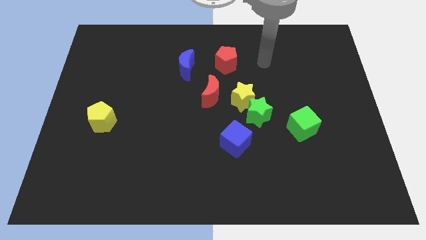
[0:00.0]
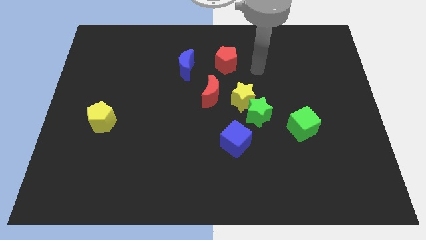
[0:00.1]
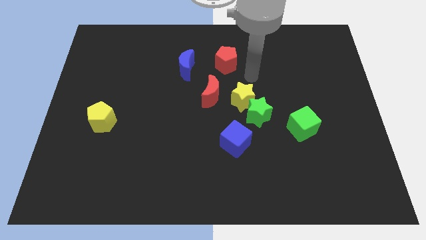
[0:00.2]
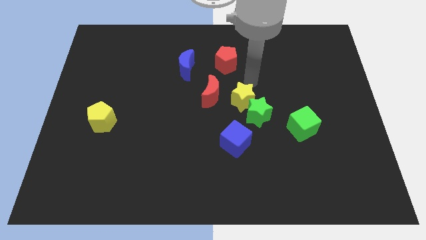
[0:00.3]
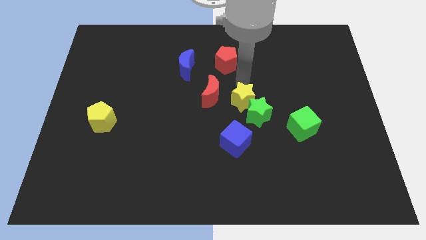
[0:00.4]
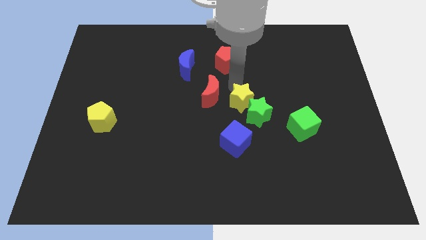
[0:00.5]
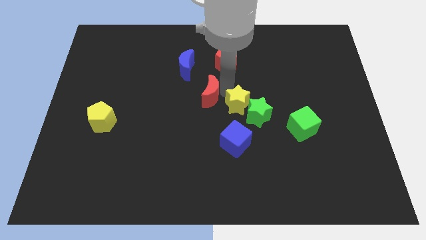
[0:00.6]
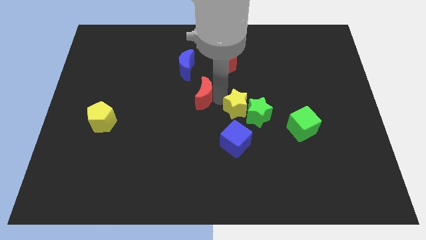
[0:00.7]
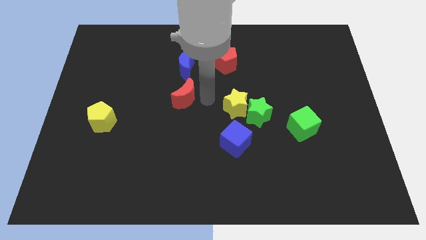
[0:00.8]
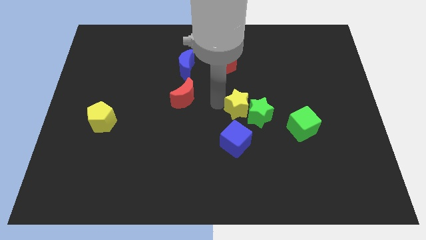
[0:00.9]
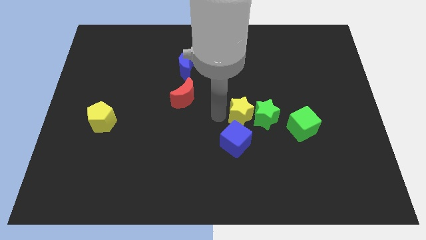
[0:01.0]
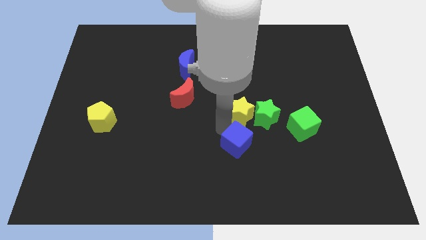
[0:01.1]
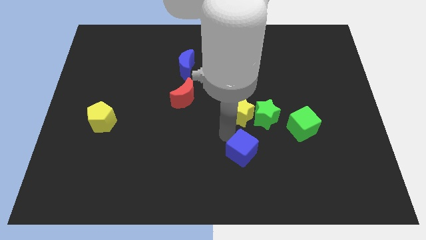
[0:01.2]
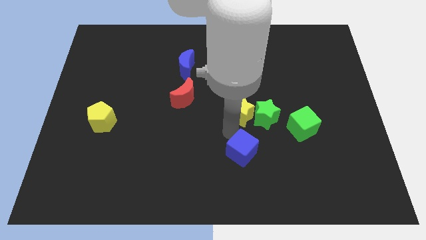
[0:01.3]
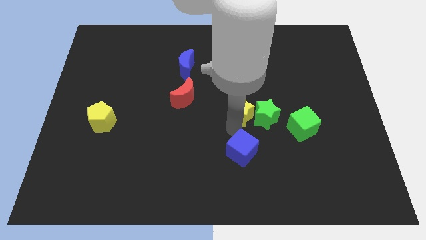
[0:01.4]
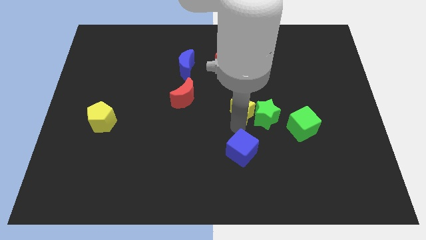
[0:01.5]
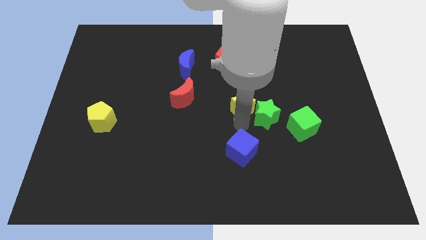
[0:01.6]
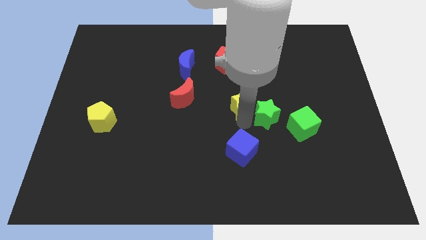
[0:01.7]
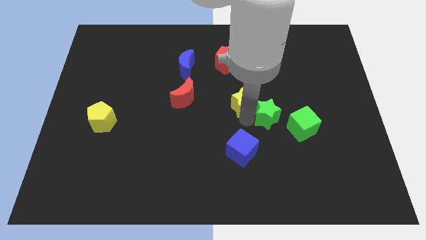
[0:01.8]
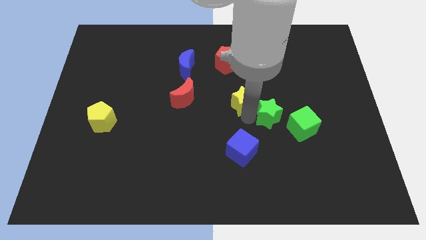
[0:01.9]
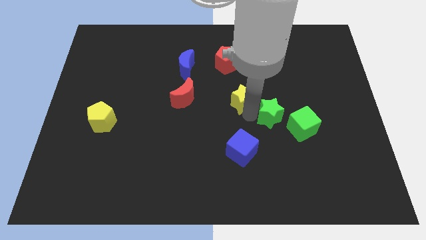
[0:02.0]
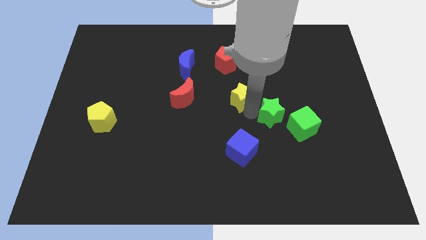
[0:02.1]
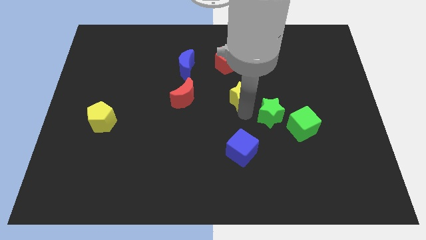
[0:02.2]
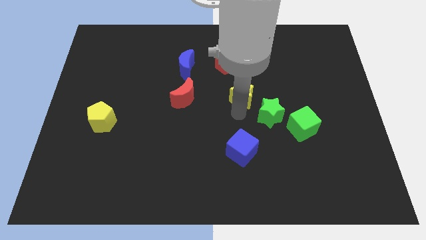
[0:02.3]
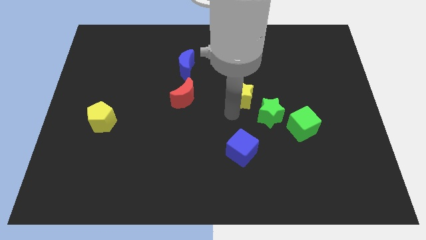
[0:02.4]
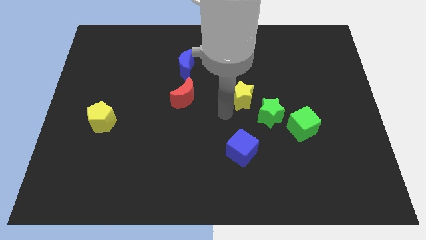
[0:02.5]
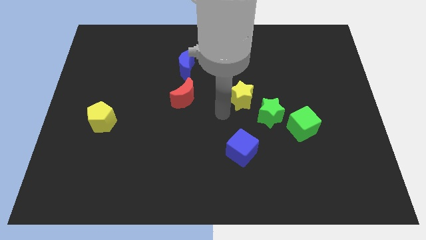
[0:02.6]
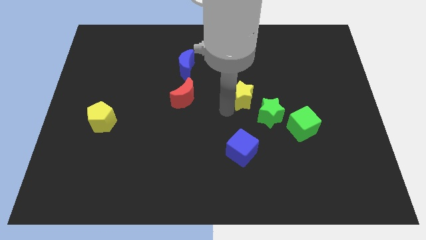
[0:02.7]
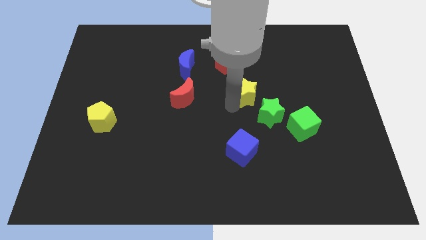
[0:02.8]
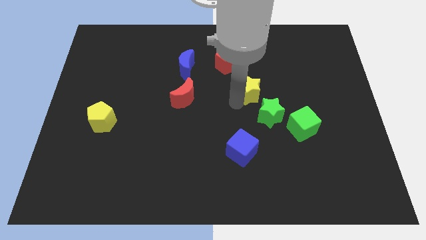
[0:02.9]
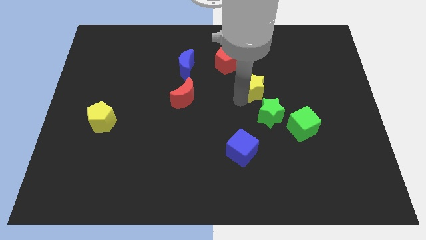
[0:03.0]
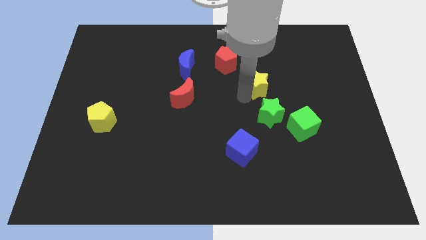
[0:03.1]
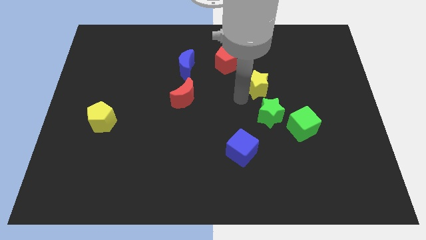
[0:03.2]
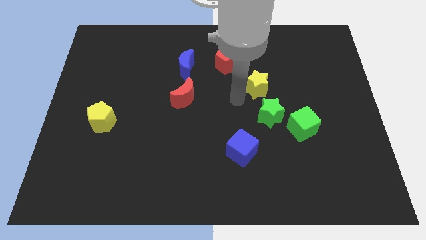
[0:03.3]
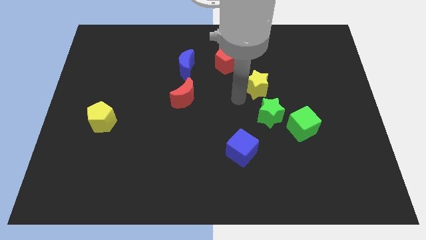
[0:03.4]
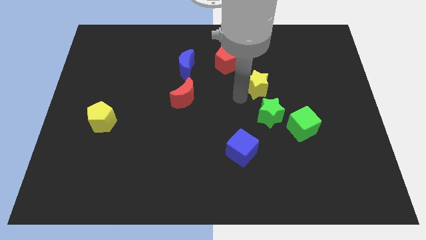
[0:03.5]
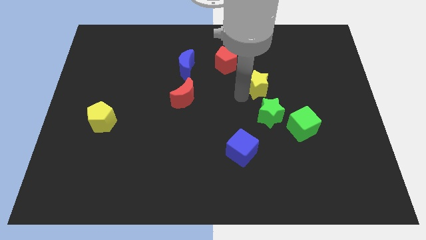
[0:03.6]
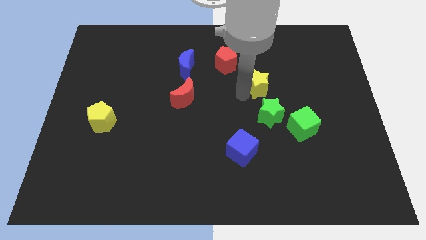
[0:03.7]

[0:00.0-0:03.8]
move the yellow star away from the green star and red moon

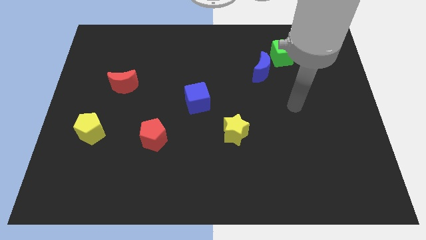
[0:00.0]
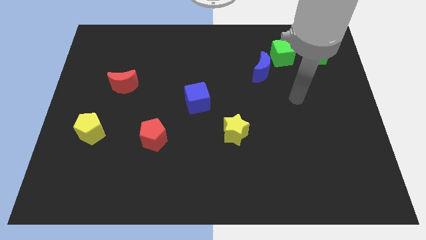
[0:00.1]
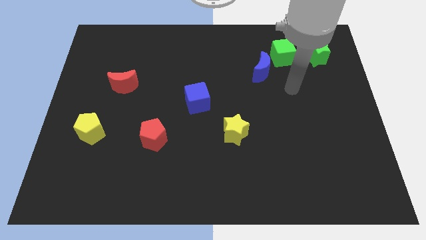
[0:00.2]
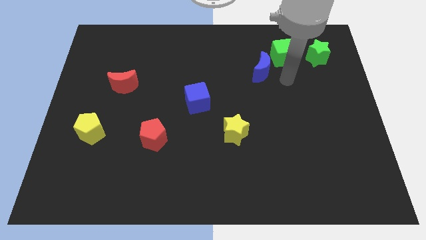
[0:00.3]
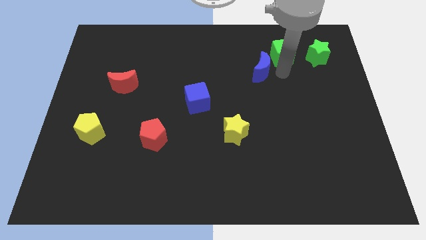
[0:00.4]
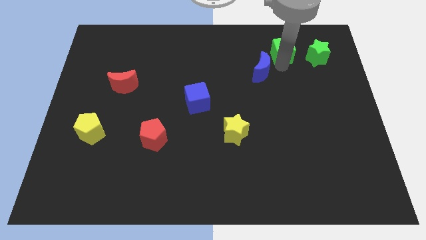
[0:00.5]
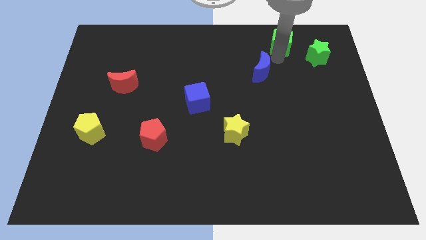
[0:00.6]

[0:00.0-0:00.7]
pull the blue moon apart from the green cube

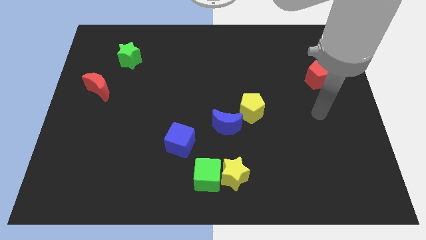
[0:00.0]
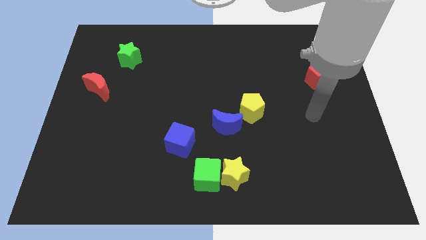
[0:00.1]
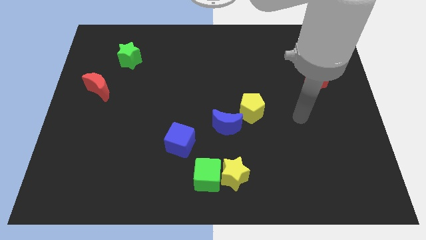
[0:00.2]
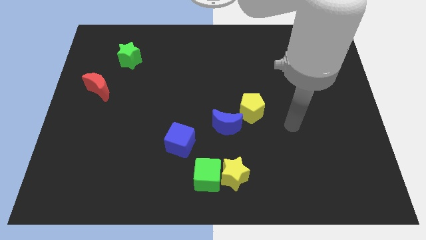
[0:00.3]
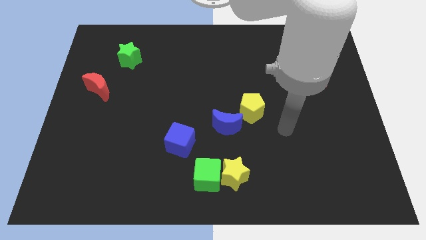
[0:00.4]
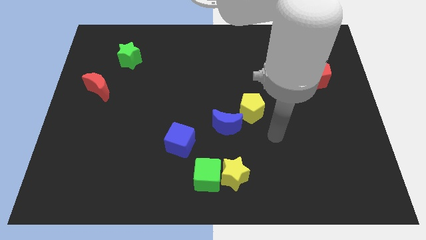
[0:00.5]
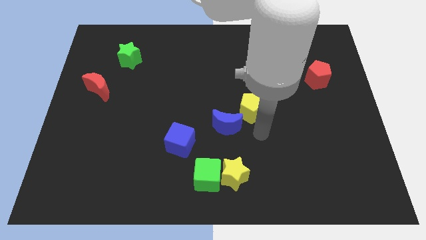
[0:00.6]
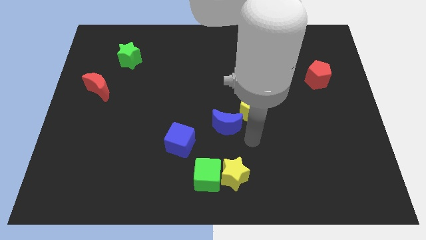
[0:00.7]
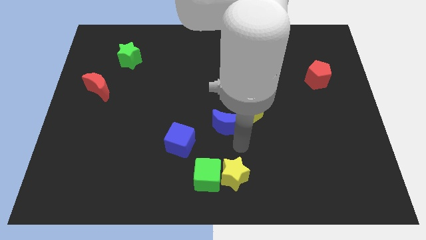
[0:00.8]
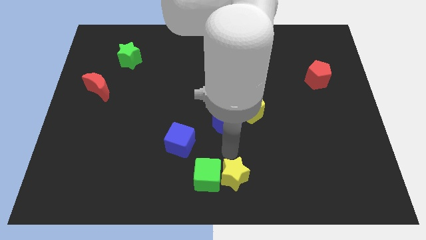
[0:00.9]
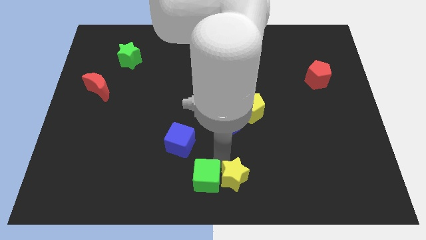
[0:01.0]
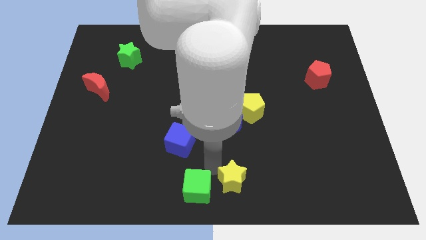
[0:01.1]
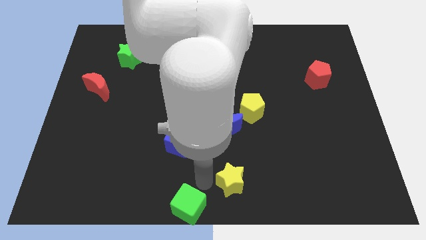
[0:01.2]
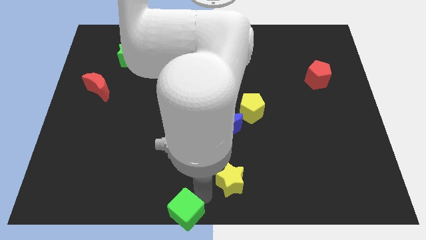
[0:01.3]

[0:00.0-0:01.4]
pull the yellow star apart from the green cube

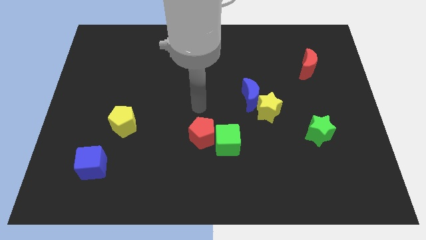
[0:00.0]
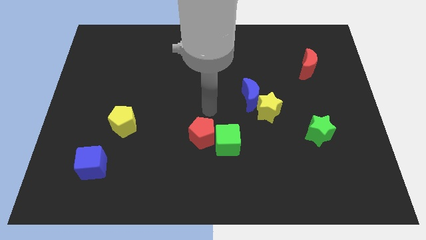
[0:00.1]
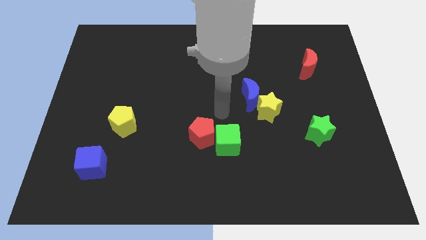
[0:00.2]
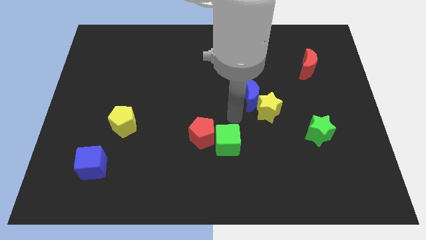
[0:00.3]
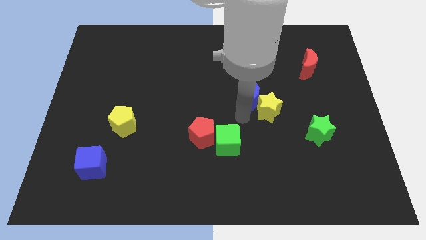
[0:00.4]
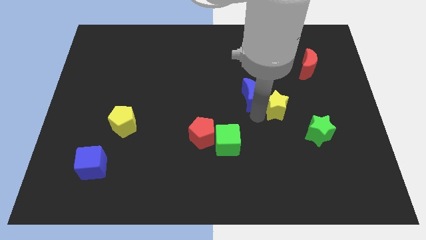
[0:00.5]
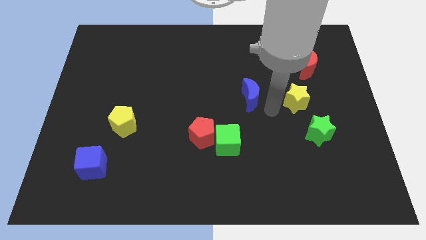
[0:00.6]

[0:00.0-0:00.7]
separate the blue moon from the yellow star

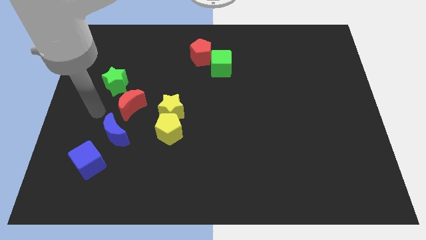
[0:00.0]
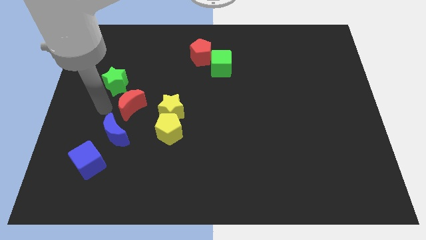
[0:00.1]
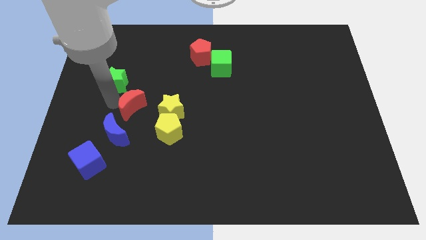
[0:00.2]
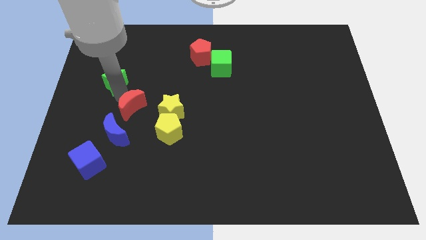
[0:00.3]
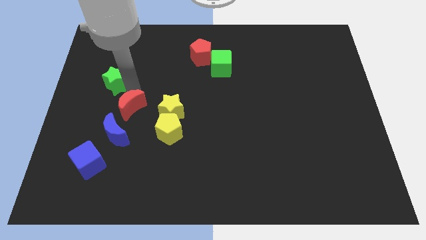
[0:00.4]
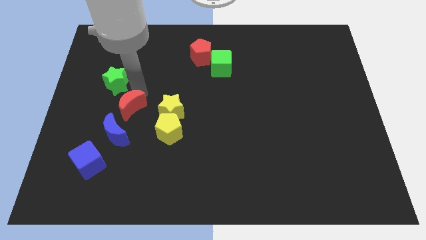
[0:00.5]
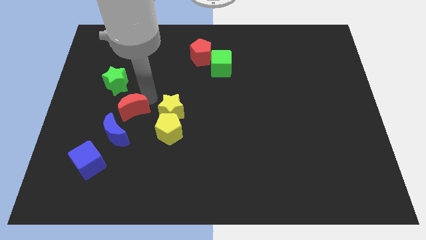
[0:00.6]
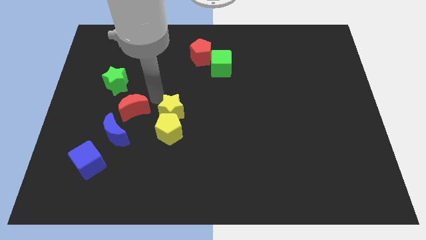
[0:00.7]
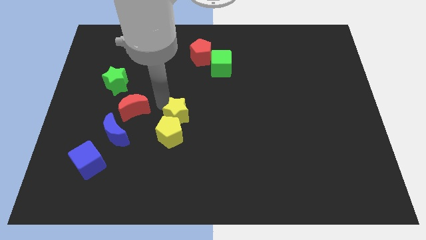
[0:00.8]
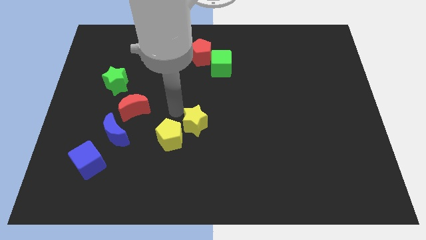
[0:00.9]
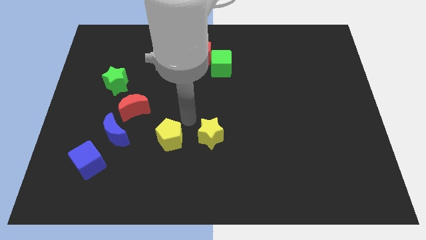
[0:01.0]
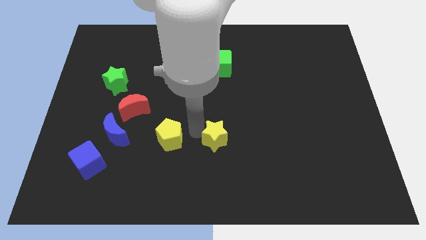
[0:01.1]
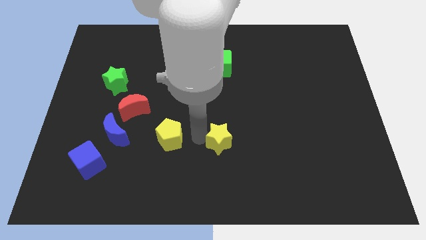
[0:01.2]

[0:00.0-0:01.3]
separate the yellow pentagon from the yellow star

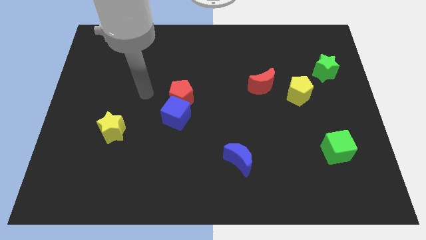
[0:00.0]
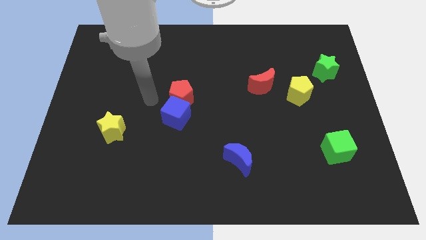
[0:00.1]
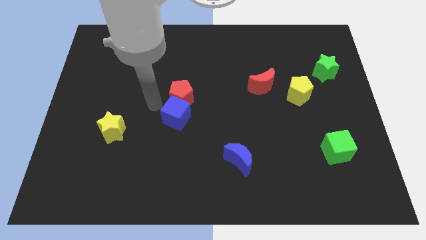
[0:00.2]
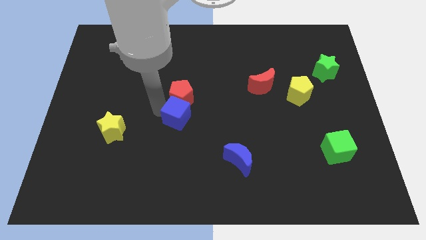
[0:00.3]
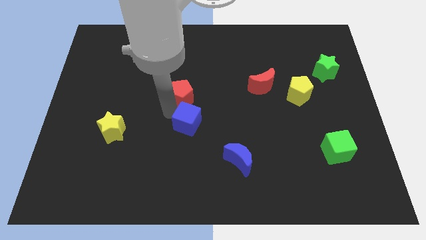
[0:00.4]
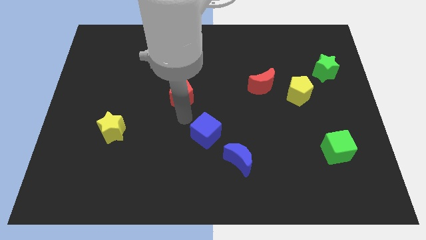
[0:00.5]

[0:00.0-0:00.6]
pull the red pentagon apart from the blue cube

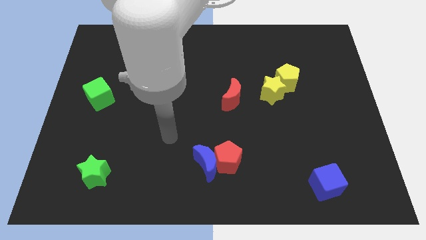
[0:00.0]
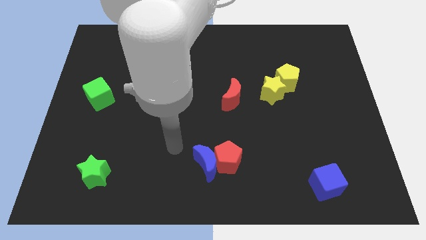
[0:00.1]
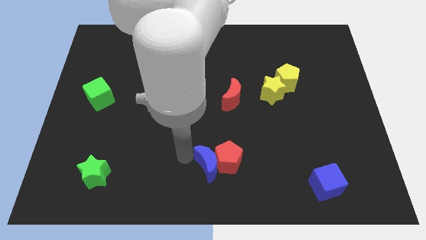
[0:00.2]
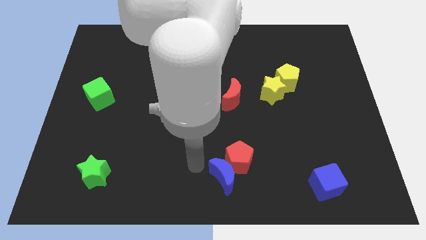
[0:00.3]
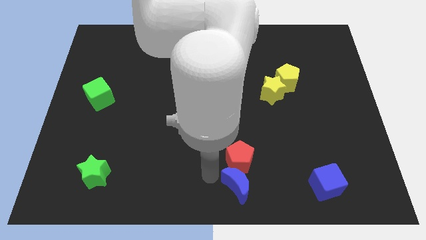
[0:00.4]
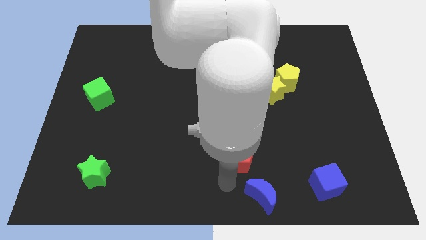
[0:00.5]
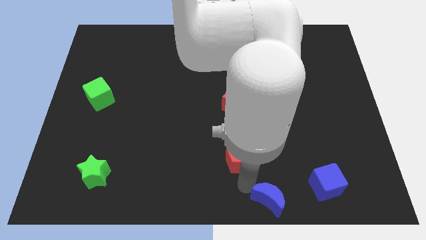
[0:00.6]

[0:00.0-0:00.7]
move the red pentagon away from the blue moon
